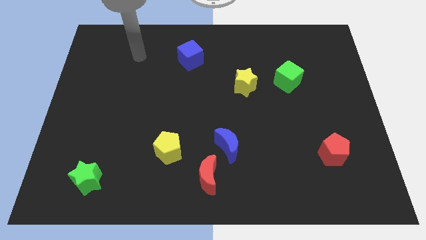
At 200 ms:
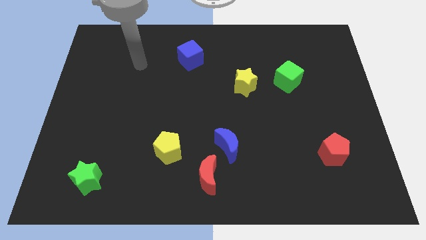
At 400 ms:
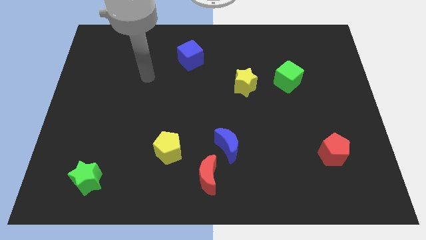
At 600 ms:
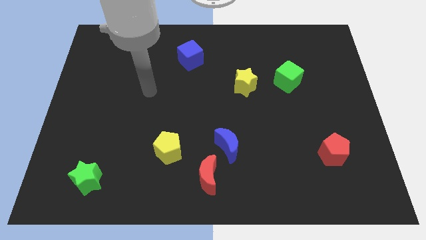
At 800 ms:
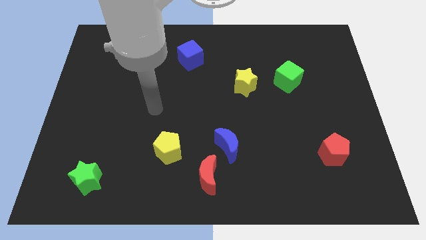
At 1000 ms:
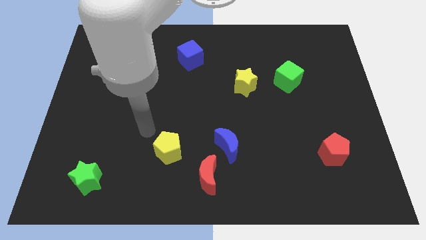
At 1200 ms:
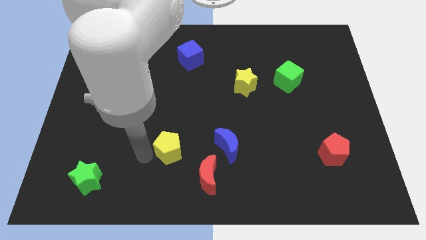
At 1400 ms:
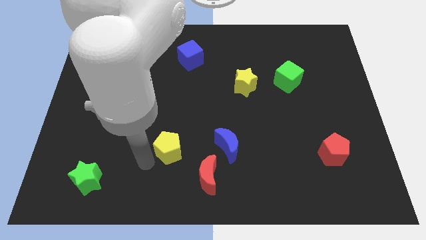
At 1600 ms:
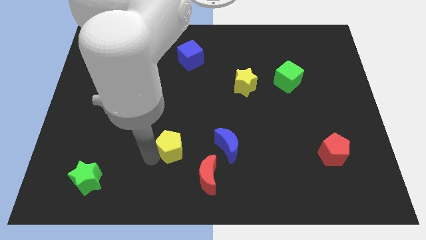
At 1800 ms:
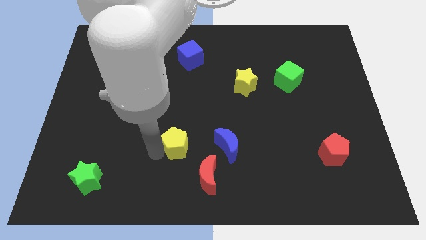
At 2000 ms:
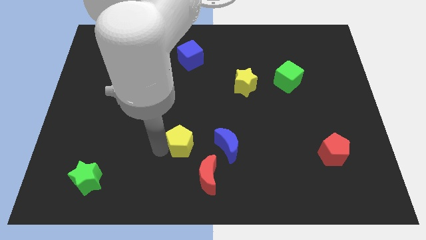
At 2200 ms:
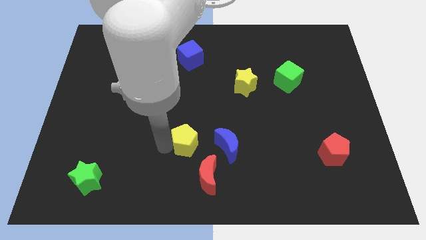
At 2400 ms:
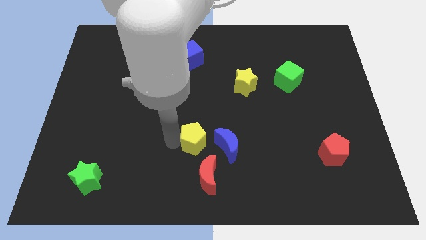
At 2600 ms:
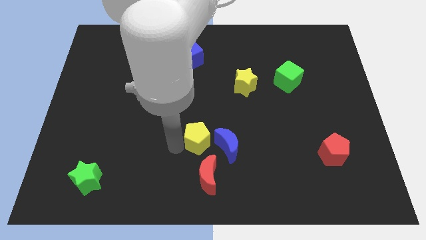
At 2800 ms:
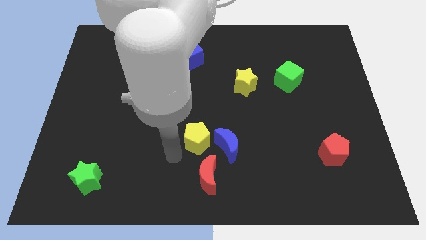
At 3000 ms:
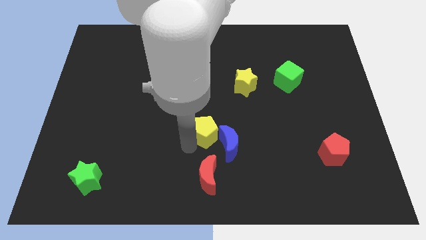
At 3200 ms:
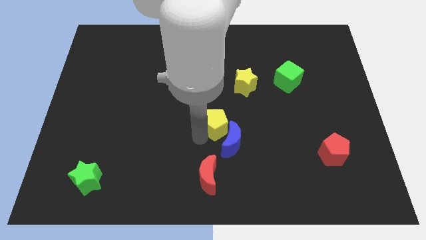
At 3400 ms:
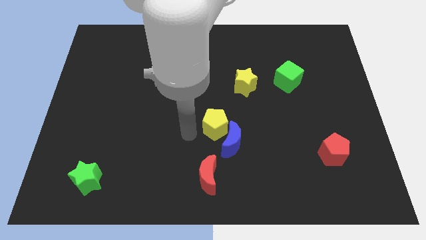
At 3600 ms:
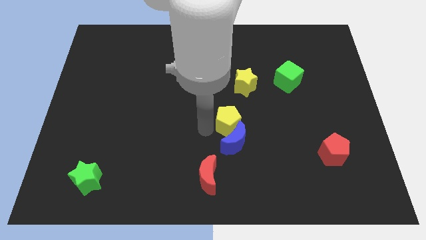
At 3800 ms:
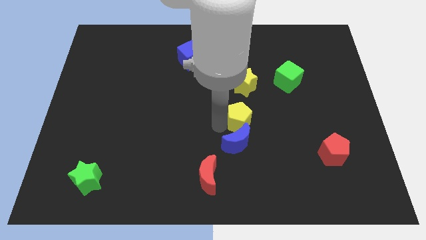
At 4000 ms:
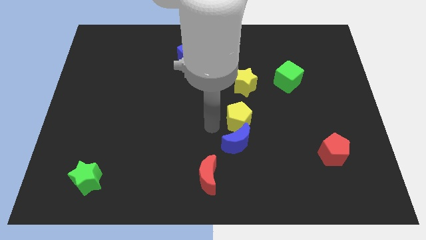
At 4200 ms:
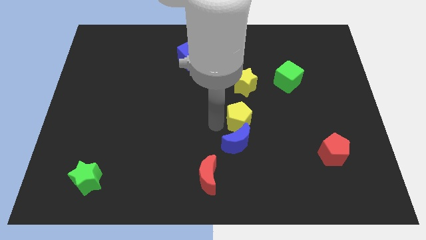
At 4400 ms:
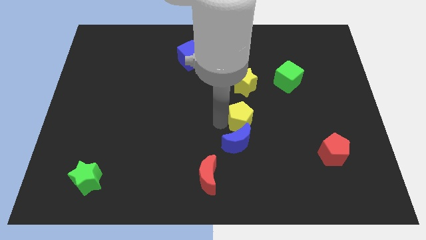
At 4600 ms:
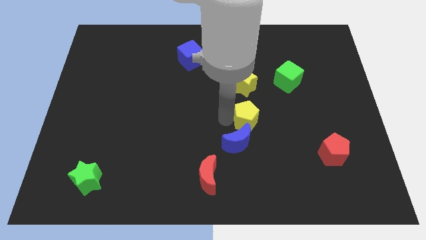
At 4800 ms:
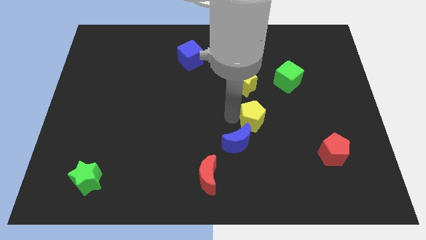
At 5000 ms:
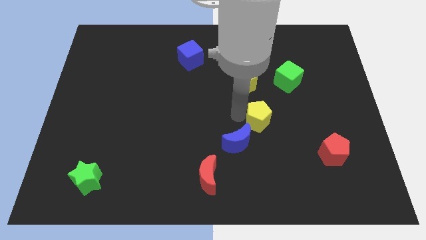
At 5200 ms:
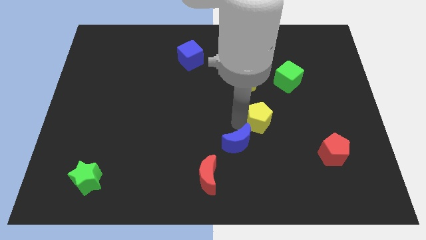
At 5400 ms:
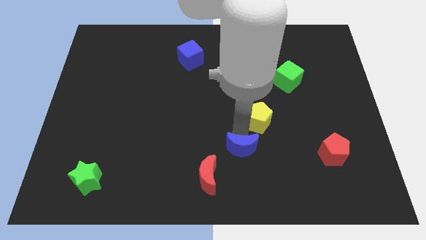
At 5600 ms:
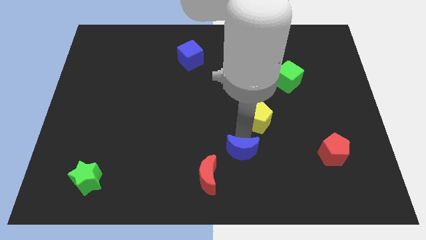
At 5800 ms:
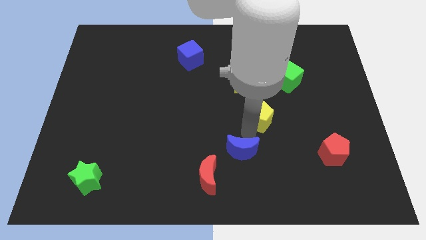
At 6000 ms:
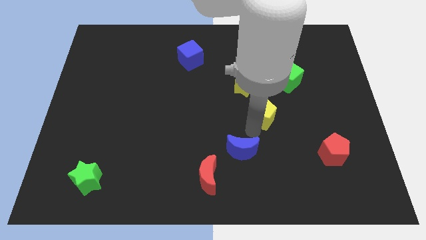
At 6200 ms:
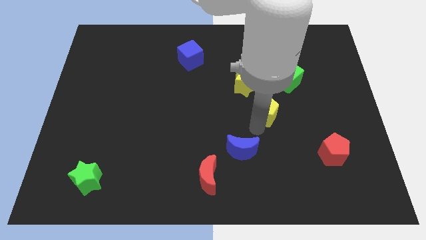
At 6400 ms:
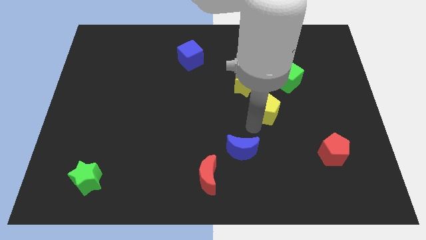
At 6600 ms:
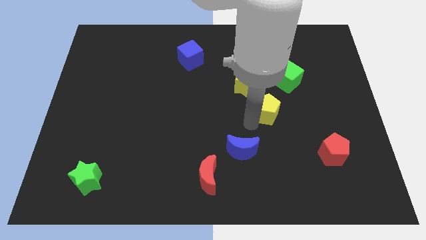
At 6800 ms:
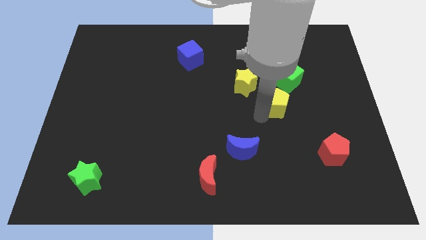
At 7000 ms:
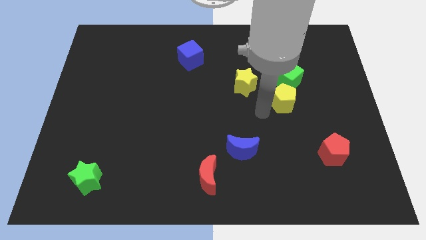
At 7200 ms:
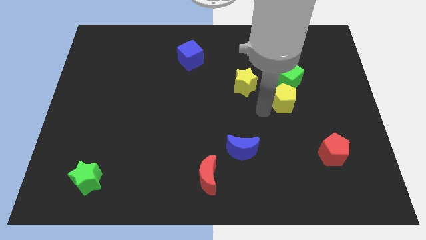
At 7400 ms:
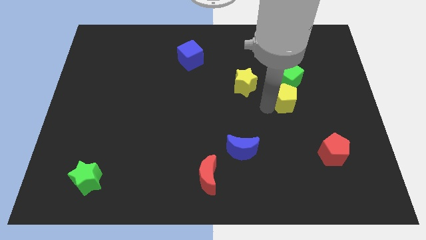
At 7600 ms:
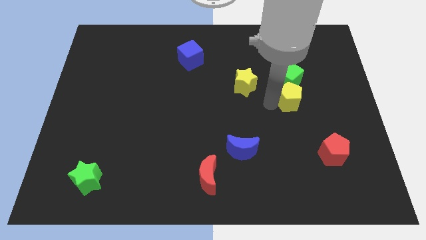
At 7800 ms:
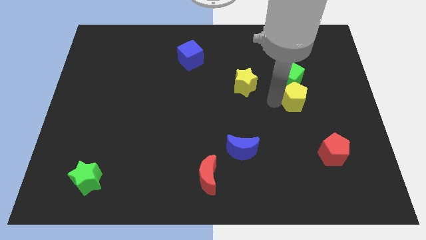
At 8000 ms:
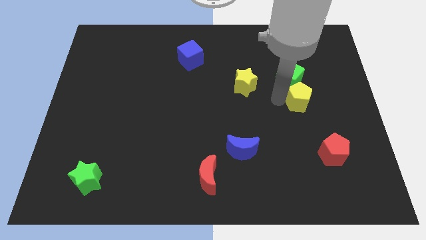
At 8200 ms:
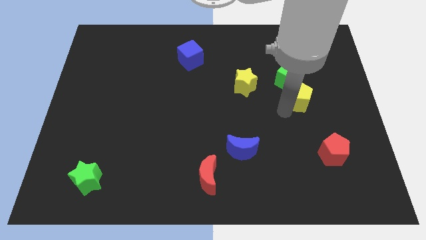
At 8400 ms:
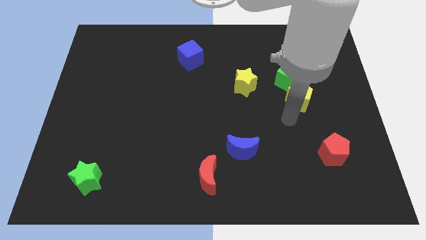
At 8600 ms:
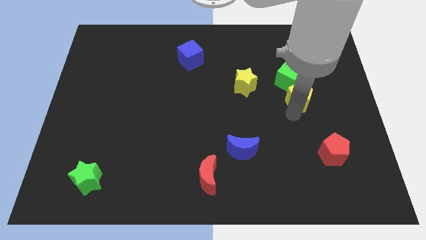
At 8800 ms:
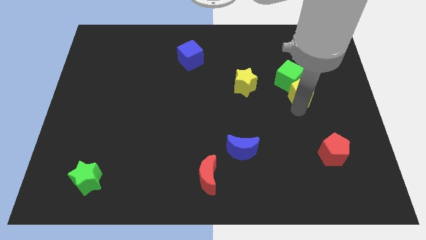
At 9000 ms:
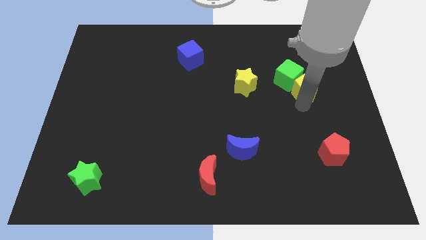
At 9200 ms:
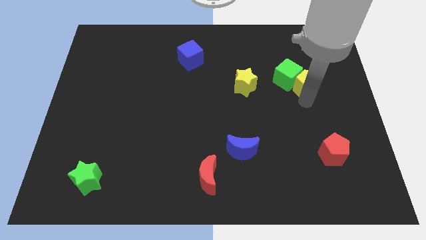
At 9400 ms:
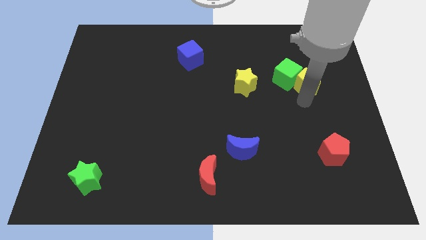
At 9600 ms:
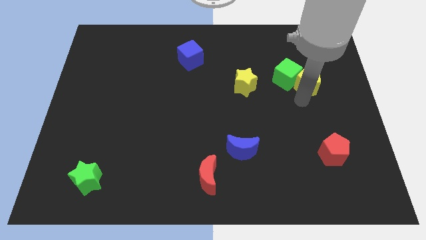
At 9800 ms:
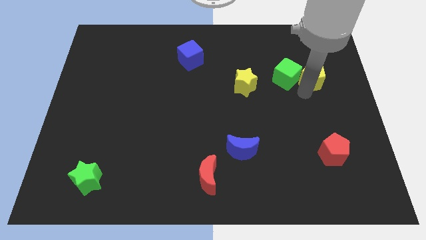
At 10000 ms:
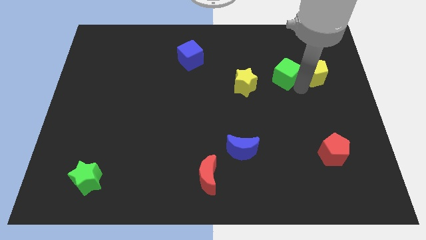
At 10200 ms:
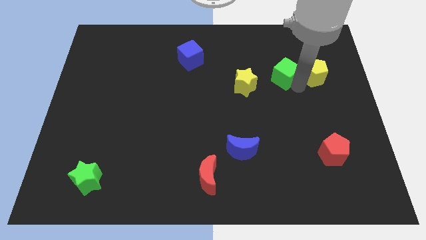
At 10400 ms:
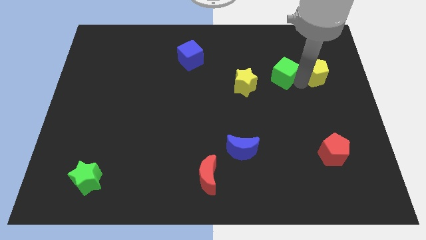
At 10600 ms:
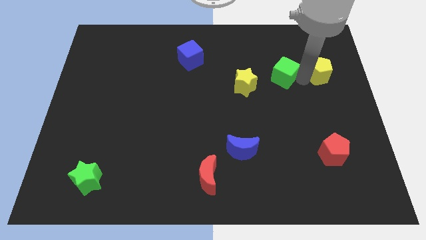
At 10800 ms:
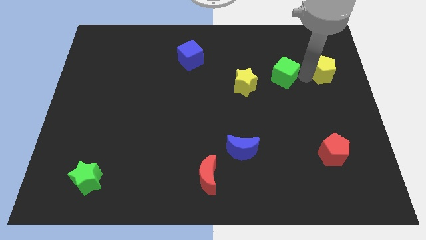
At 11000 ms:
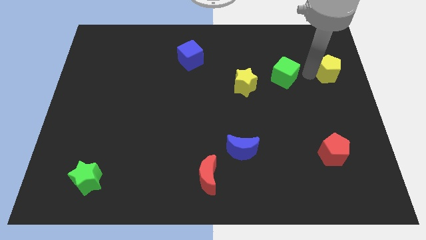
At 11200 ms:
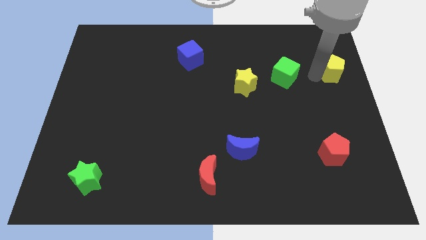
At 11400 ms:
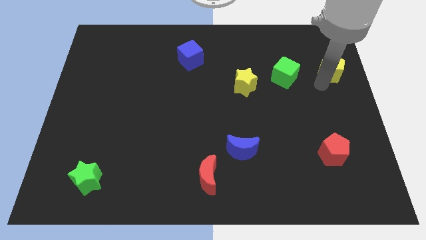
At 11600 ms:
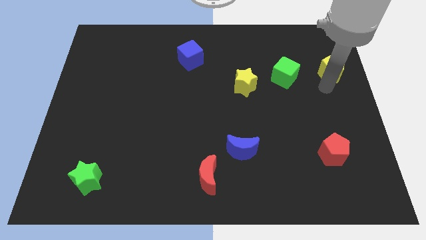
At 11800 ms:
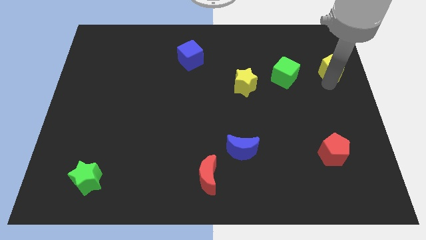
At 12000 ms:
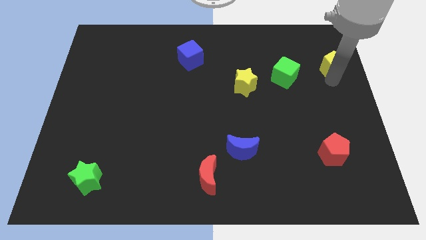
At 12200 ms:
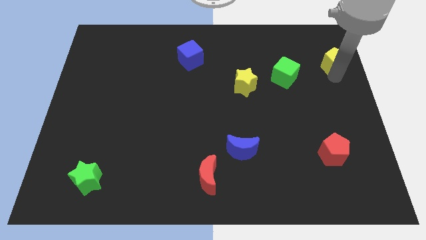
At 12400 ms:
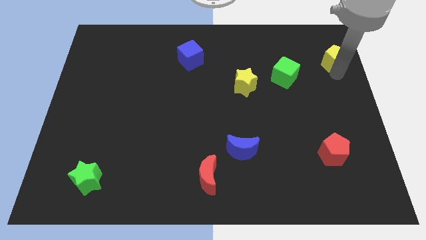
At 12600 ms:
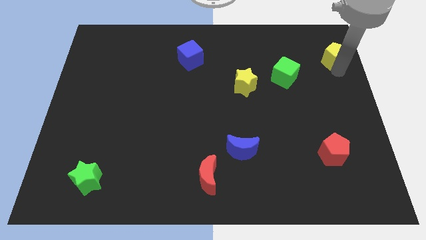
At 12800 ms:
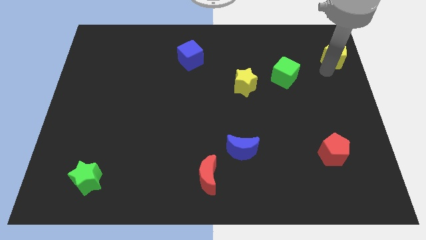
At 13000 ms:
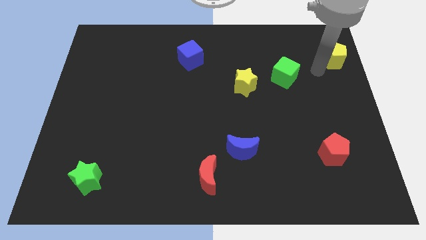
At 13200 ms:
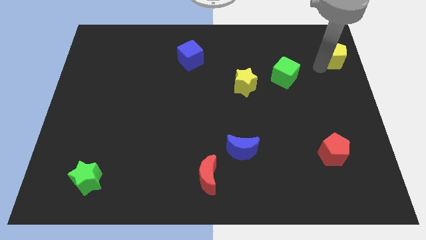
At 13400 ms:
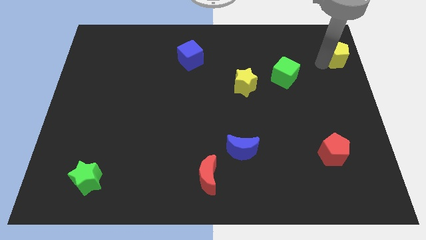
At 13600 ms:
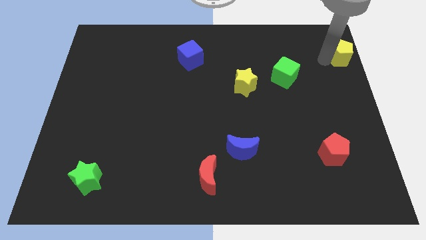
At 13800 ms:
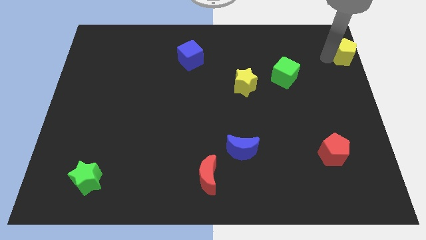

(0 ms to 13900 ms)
move the yellow pentagon to the top right of the board
